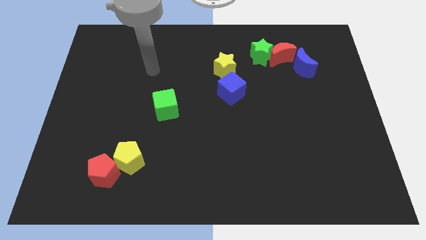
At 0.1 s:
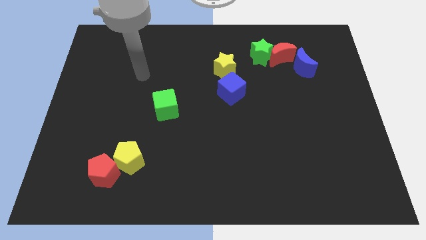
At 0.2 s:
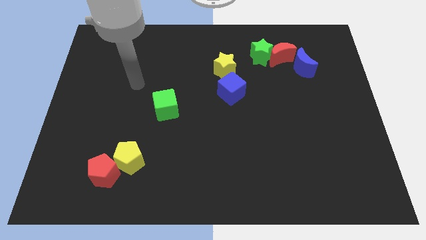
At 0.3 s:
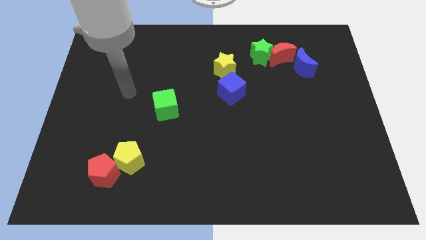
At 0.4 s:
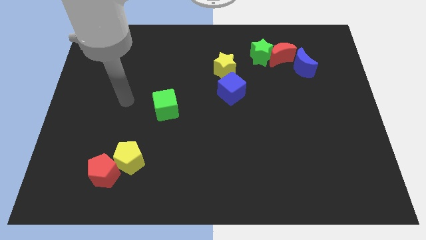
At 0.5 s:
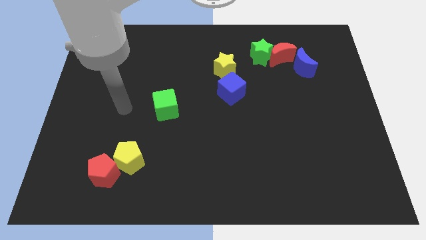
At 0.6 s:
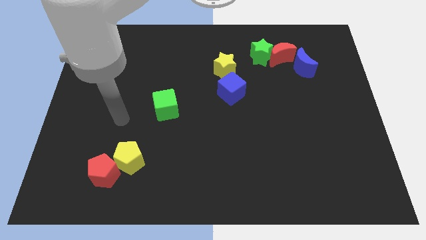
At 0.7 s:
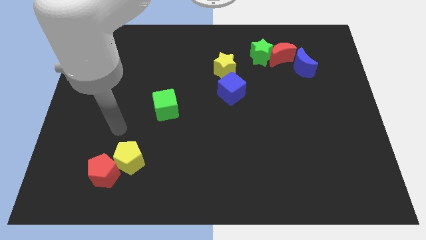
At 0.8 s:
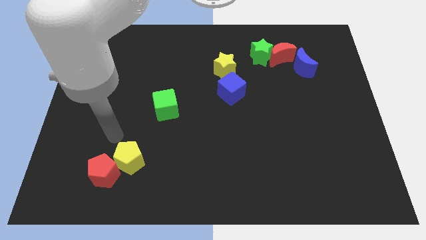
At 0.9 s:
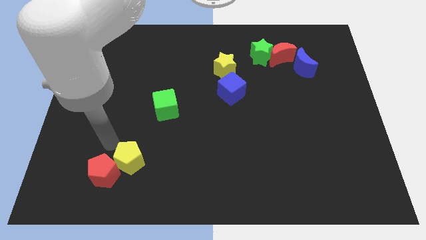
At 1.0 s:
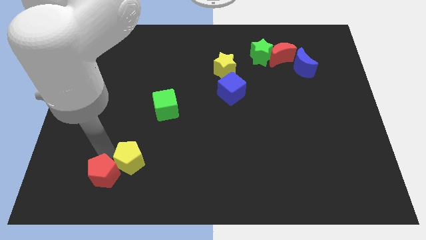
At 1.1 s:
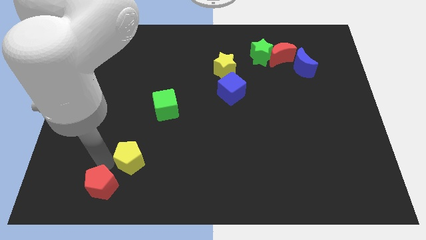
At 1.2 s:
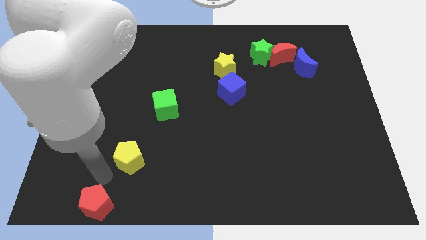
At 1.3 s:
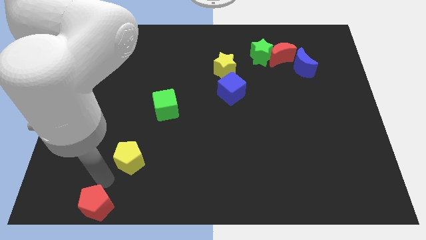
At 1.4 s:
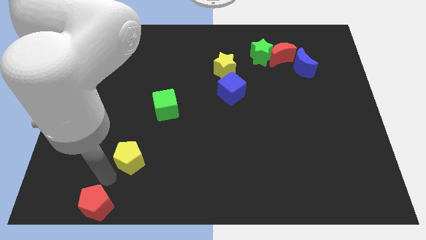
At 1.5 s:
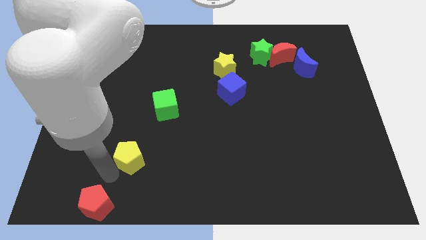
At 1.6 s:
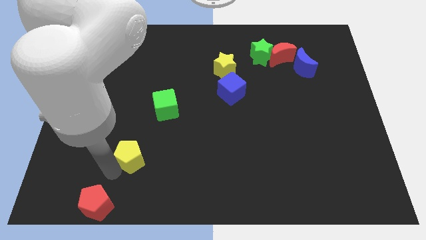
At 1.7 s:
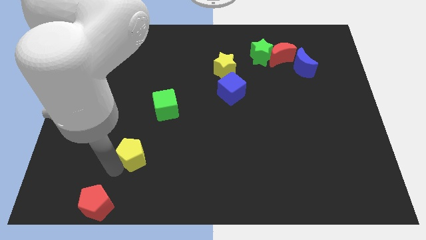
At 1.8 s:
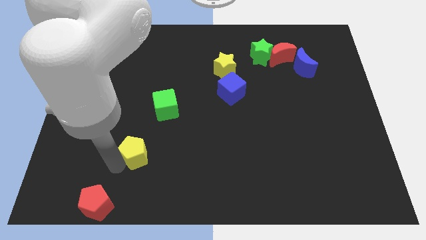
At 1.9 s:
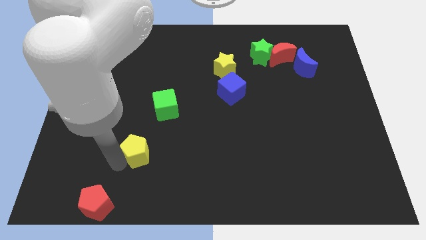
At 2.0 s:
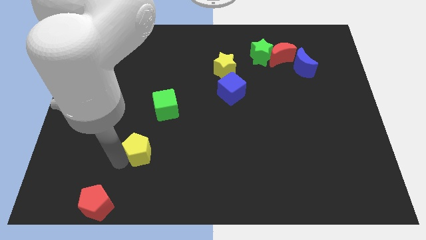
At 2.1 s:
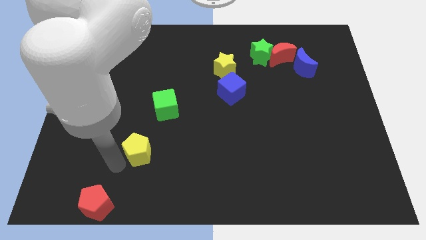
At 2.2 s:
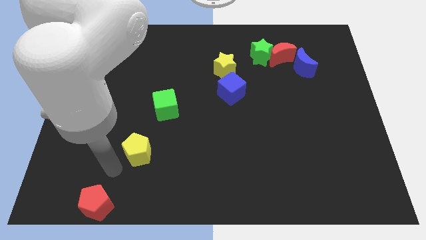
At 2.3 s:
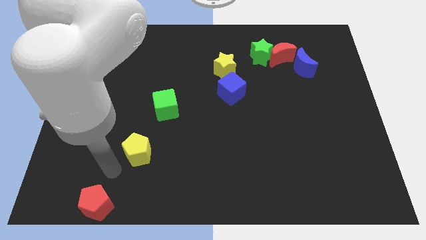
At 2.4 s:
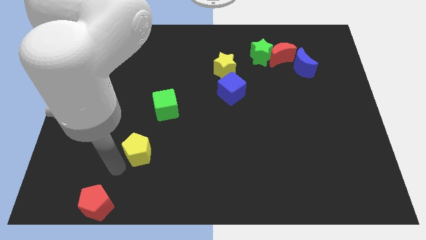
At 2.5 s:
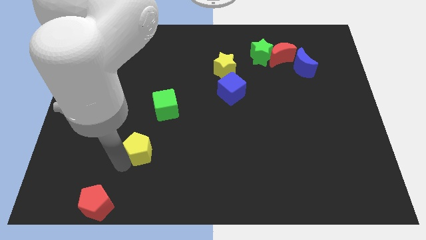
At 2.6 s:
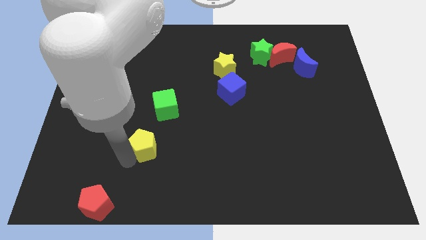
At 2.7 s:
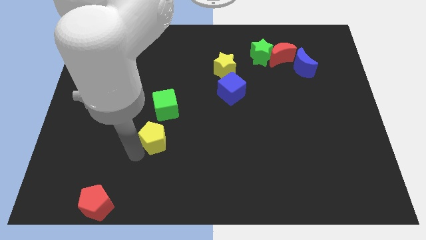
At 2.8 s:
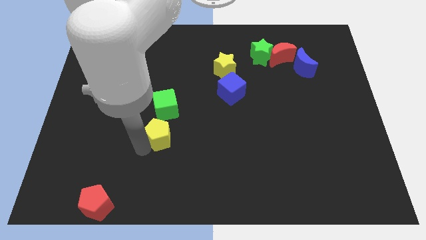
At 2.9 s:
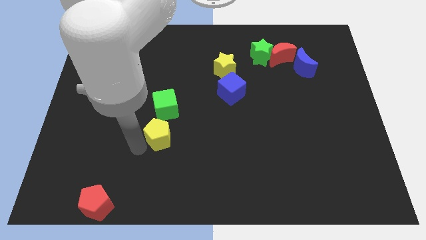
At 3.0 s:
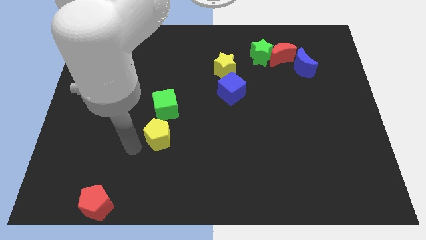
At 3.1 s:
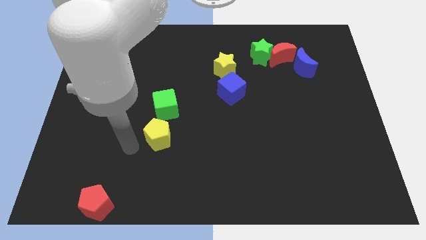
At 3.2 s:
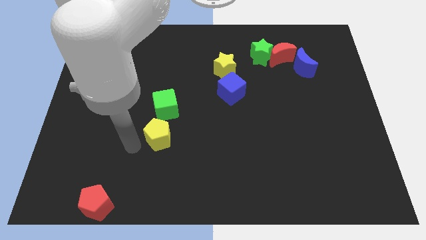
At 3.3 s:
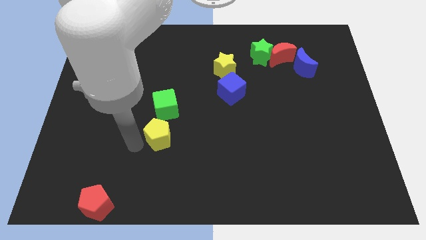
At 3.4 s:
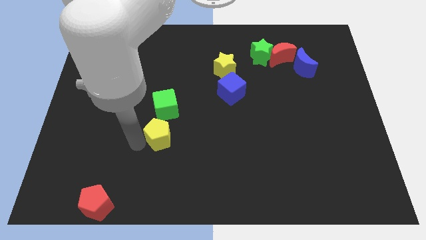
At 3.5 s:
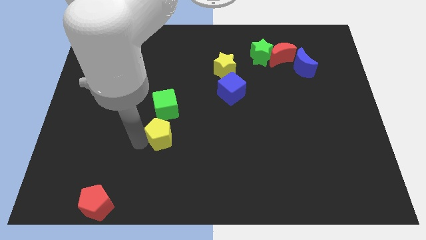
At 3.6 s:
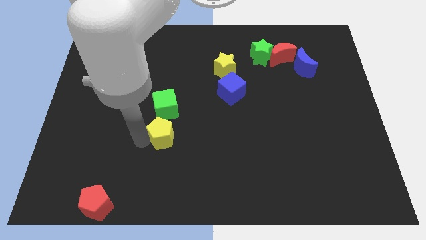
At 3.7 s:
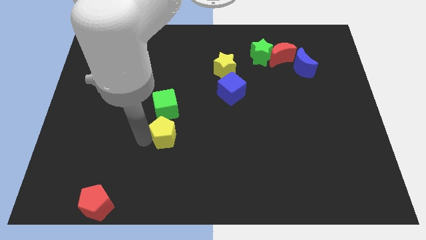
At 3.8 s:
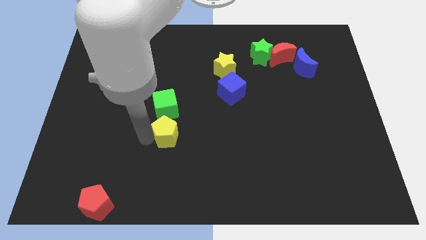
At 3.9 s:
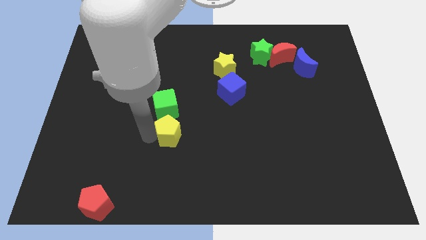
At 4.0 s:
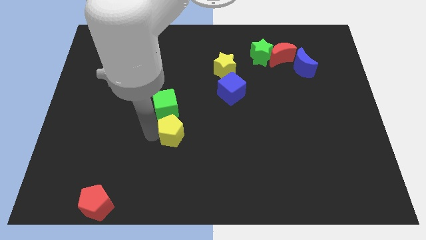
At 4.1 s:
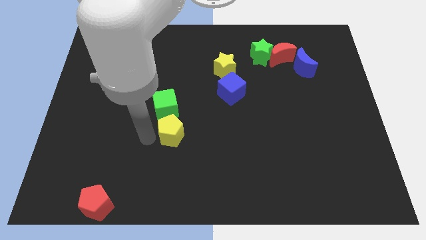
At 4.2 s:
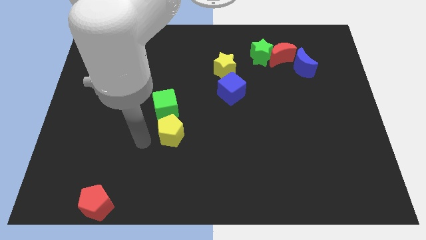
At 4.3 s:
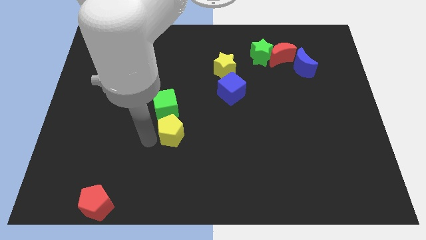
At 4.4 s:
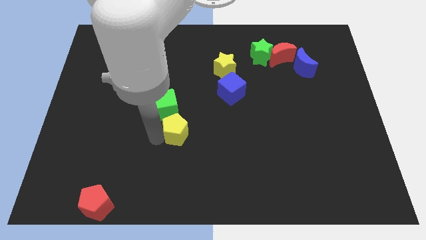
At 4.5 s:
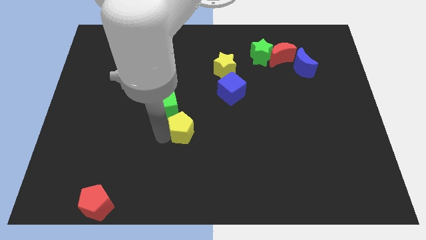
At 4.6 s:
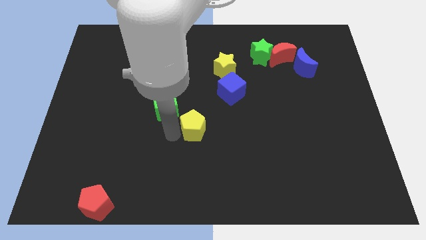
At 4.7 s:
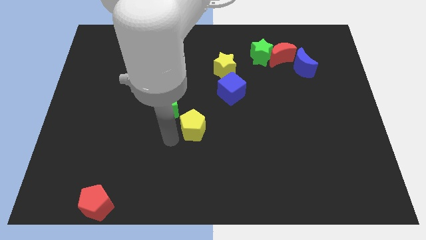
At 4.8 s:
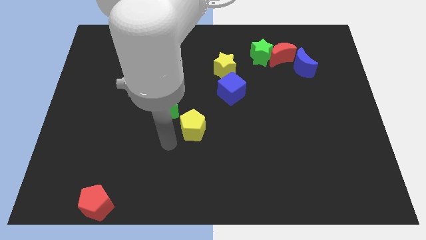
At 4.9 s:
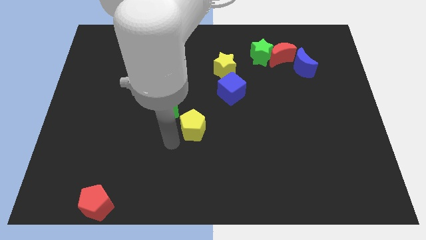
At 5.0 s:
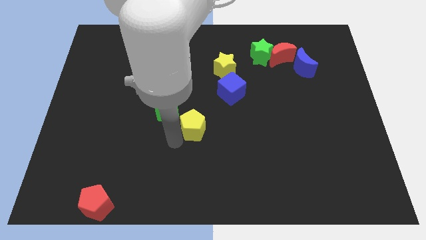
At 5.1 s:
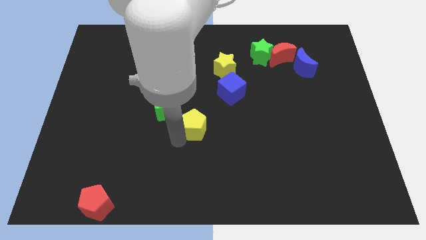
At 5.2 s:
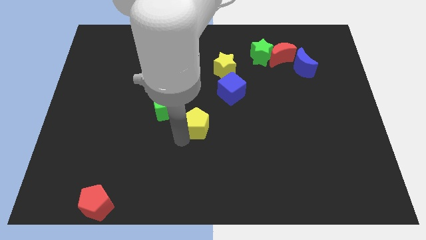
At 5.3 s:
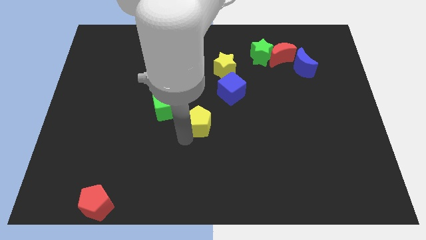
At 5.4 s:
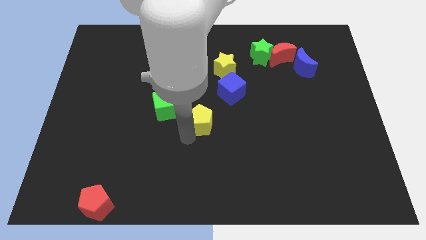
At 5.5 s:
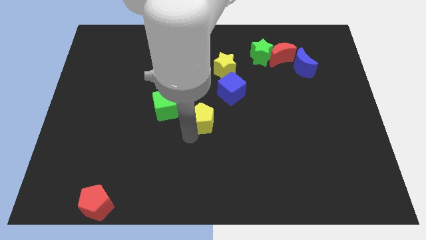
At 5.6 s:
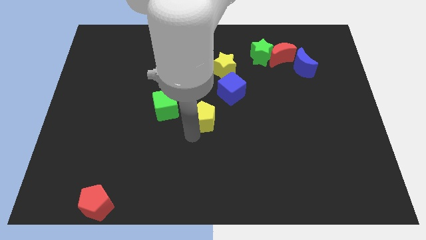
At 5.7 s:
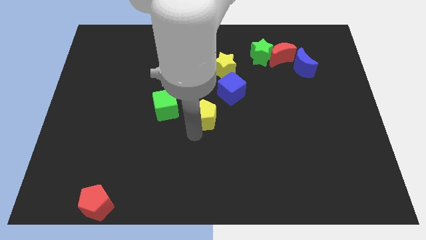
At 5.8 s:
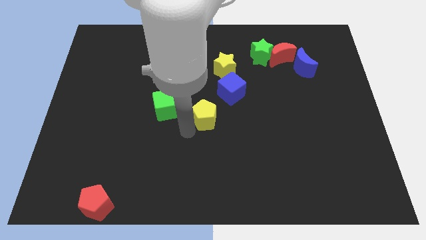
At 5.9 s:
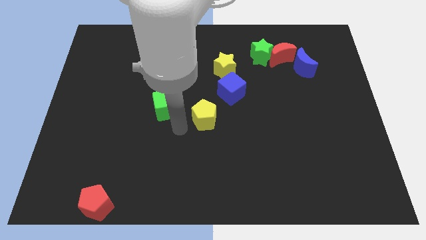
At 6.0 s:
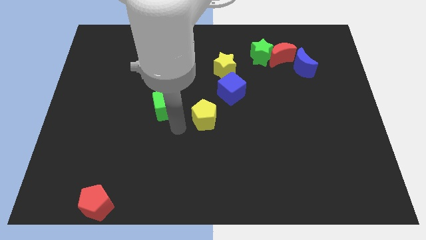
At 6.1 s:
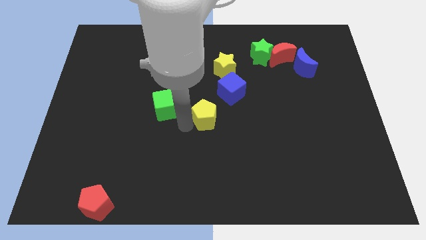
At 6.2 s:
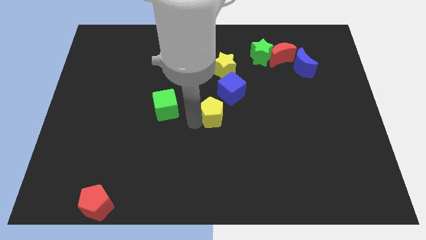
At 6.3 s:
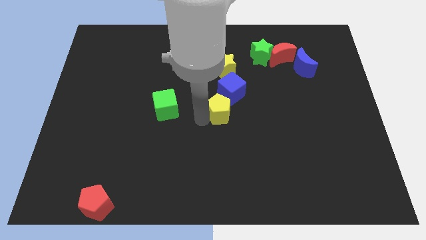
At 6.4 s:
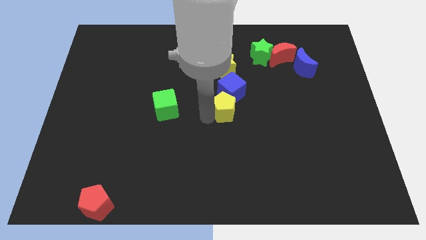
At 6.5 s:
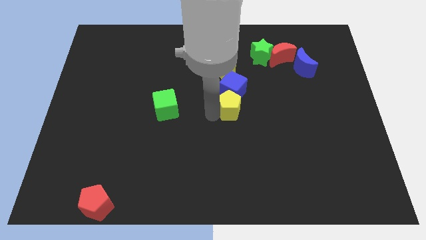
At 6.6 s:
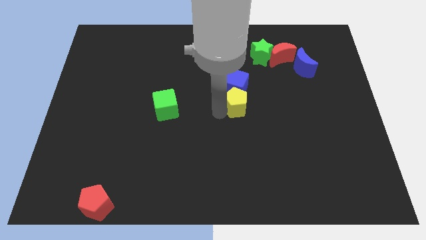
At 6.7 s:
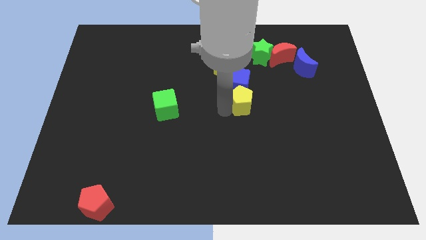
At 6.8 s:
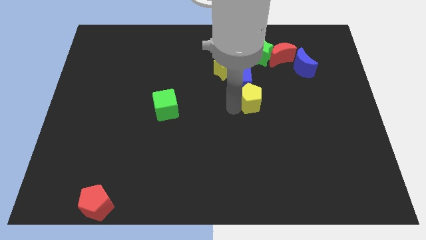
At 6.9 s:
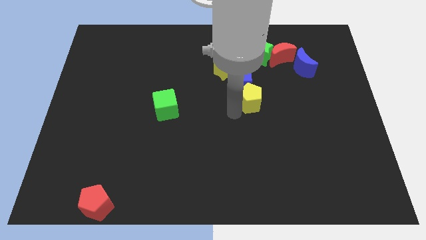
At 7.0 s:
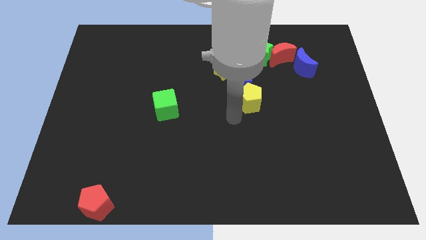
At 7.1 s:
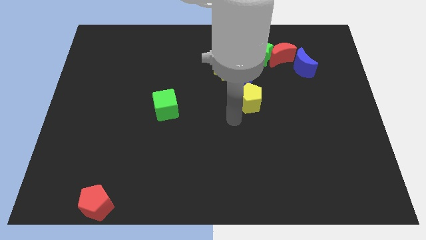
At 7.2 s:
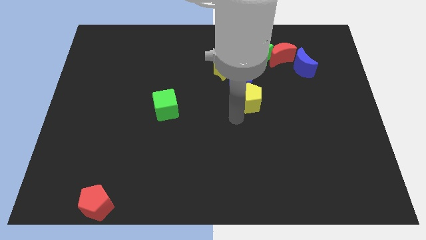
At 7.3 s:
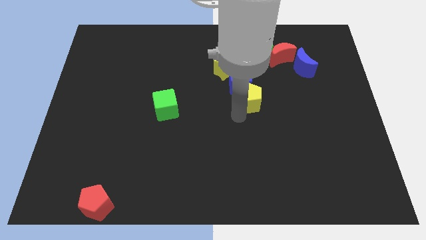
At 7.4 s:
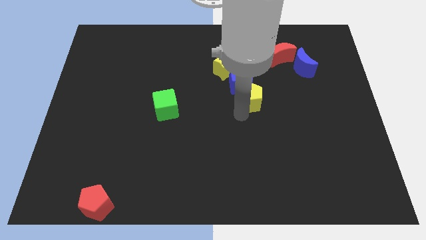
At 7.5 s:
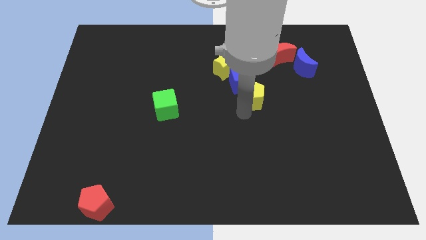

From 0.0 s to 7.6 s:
slide the yellow pentagon to the bottom of the green star

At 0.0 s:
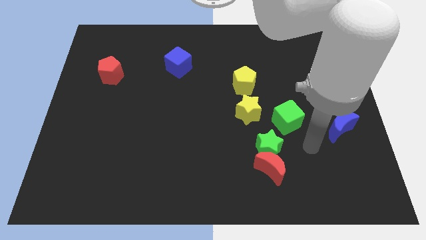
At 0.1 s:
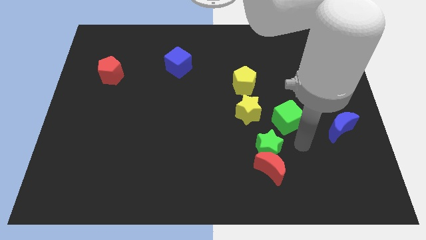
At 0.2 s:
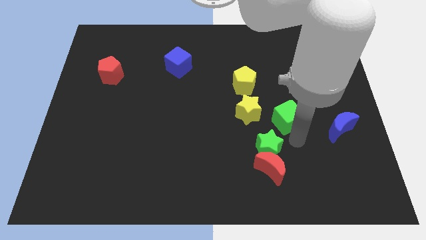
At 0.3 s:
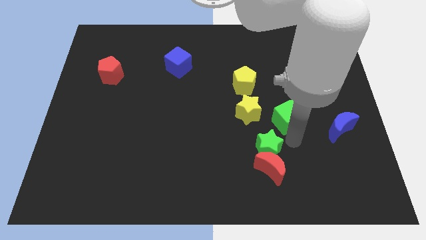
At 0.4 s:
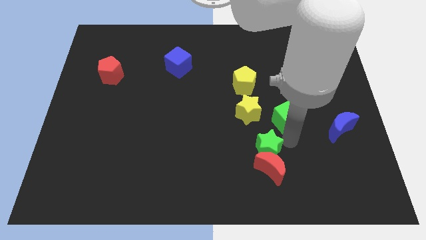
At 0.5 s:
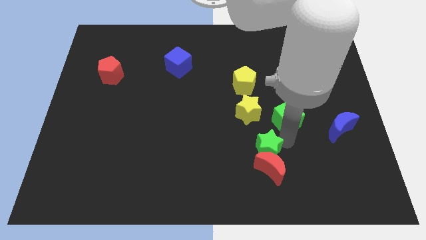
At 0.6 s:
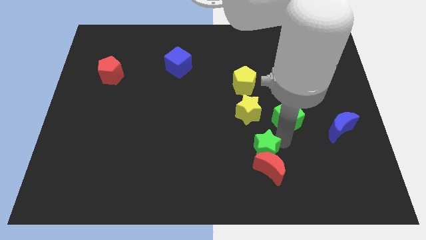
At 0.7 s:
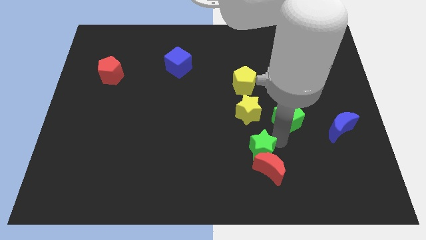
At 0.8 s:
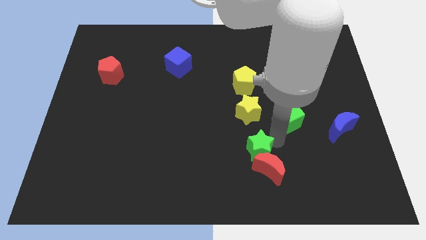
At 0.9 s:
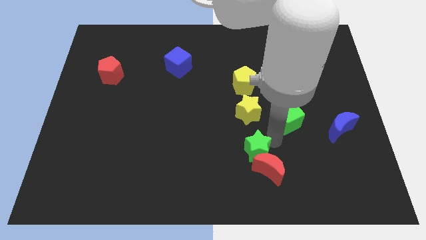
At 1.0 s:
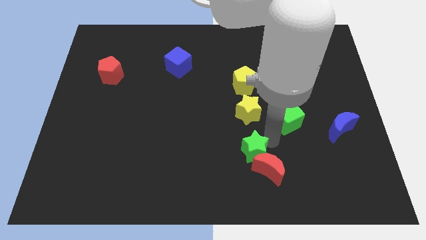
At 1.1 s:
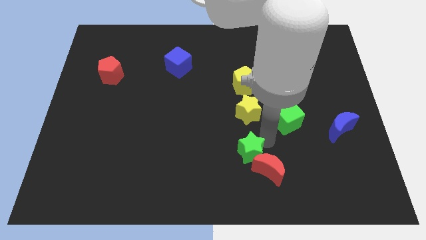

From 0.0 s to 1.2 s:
push the green star to the left of the red moon
